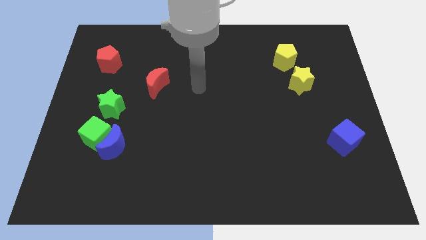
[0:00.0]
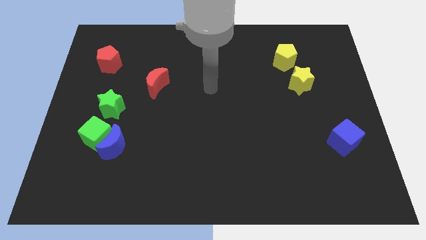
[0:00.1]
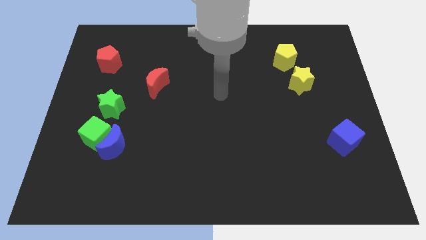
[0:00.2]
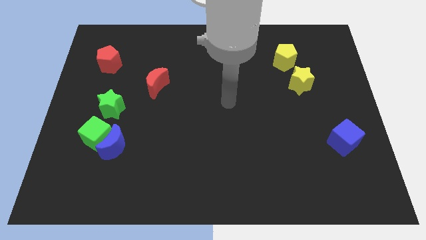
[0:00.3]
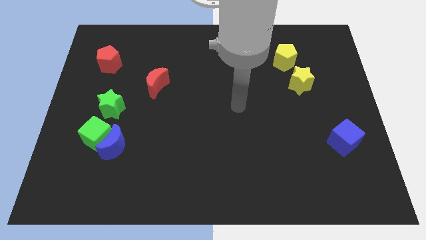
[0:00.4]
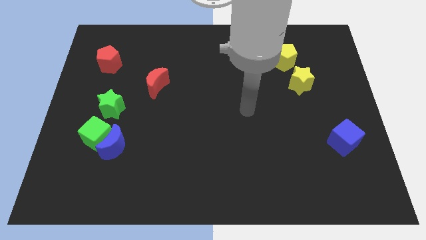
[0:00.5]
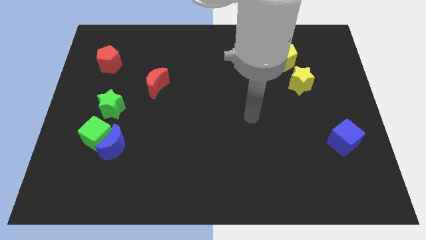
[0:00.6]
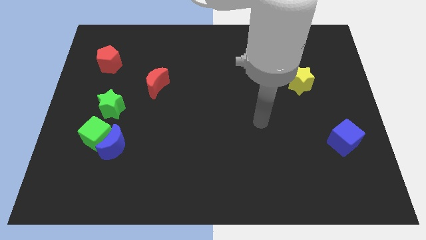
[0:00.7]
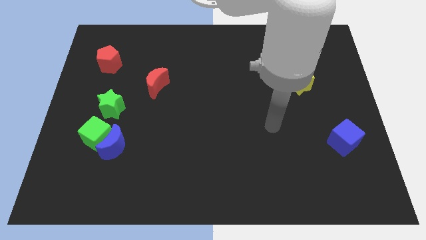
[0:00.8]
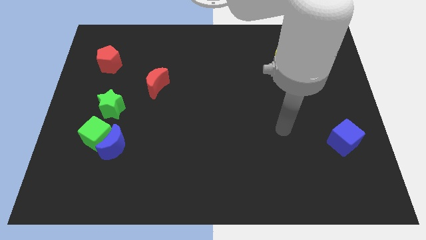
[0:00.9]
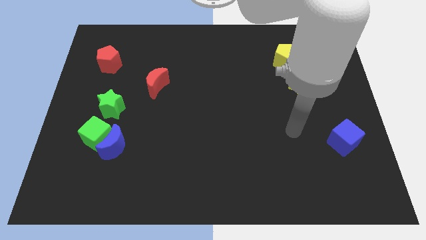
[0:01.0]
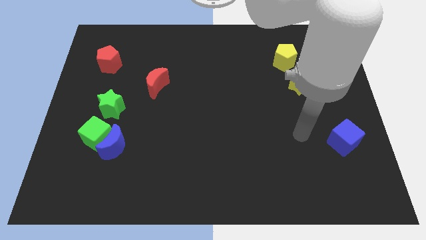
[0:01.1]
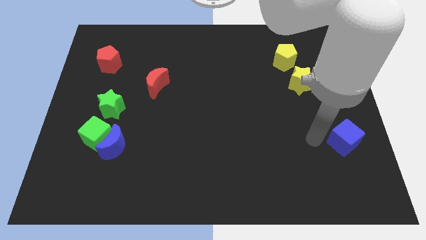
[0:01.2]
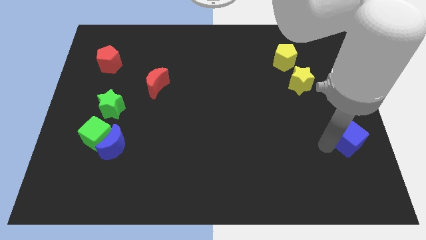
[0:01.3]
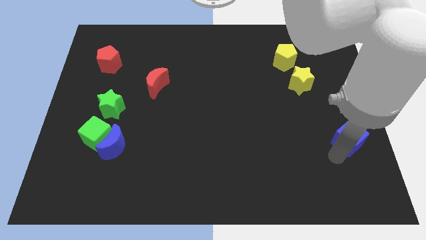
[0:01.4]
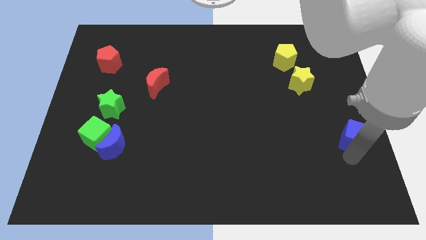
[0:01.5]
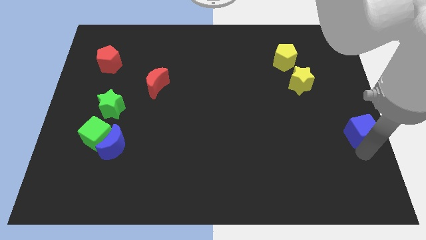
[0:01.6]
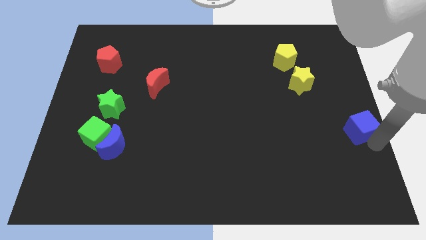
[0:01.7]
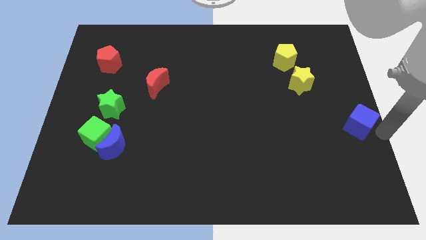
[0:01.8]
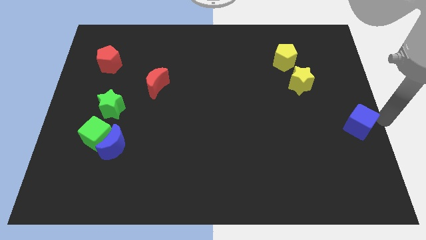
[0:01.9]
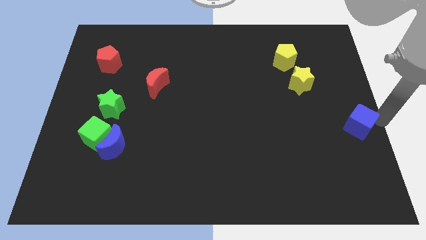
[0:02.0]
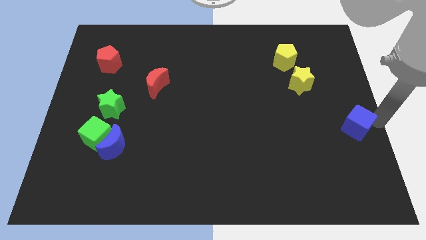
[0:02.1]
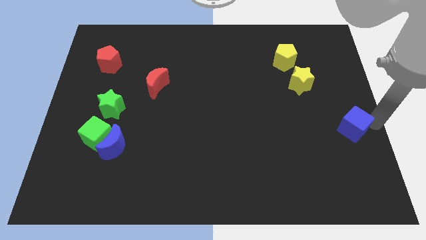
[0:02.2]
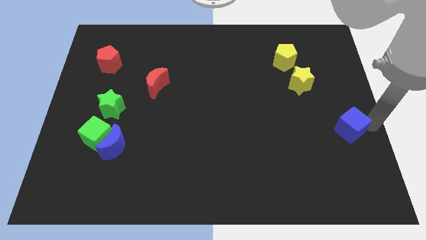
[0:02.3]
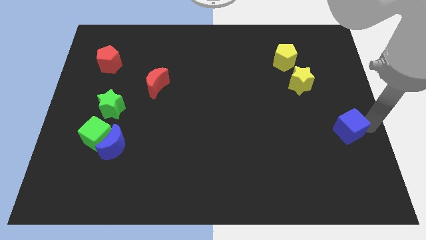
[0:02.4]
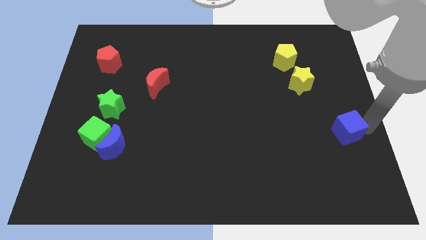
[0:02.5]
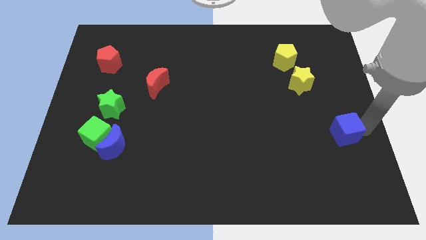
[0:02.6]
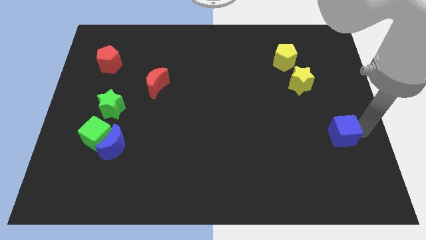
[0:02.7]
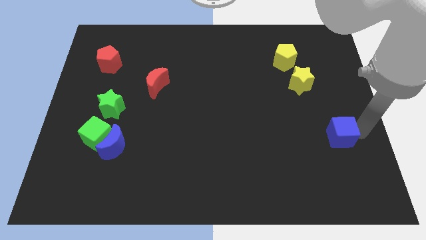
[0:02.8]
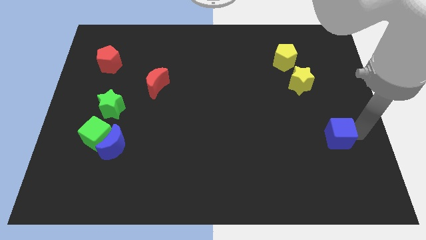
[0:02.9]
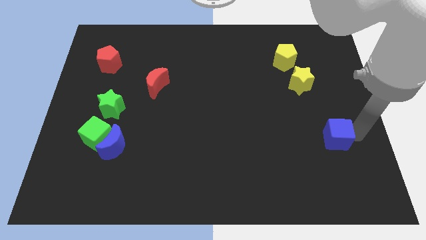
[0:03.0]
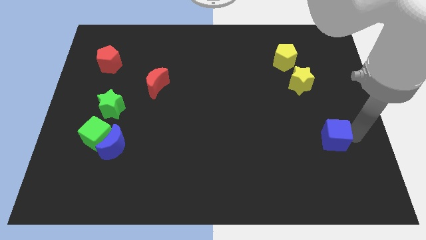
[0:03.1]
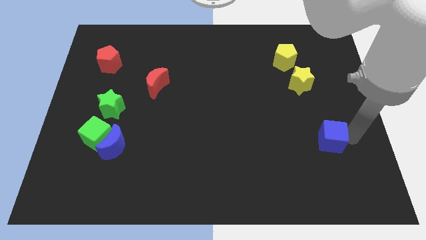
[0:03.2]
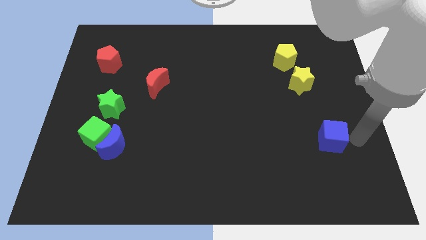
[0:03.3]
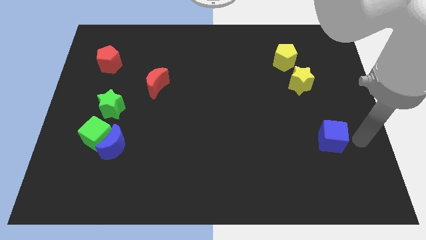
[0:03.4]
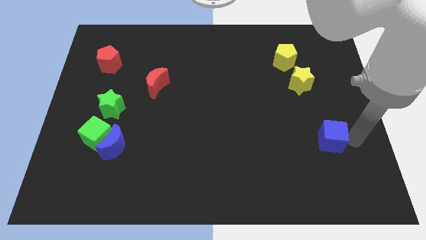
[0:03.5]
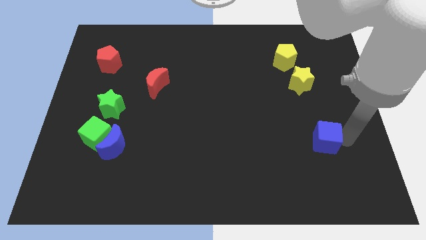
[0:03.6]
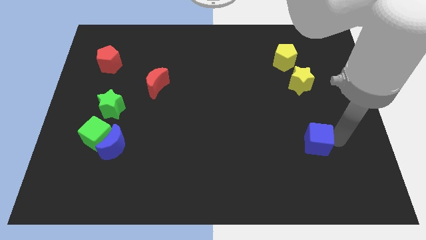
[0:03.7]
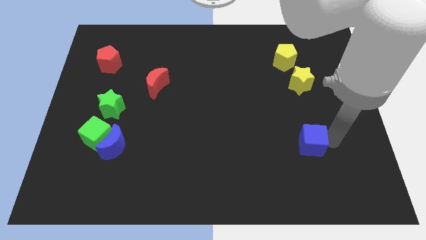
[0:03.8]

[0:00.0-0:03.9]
push the blue cube left a little

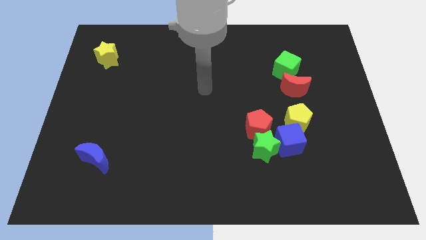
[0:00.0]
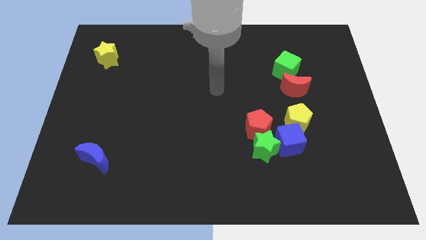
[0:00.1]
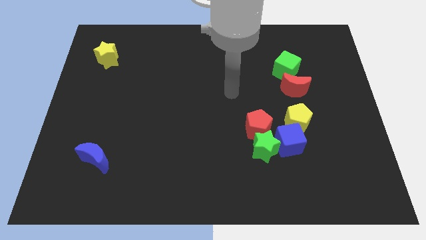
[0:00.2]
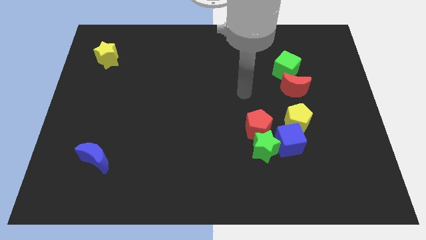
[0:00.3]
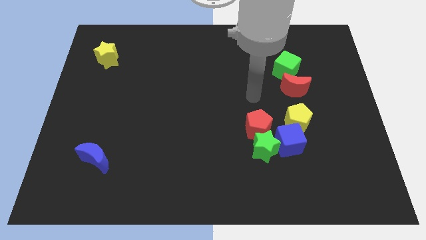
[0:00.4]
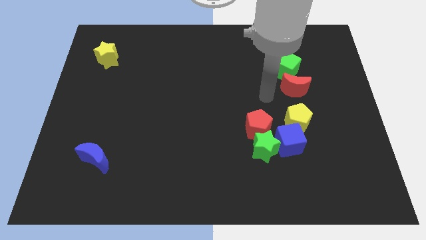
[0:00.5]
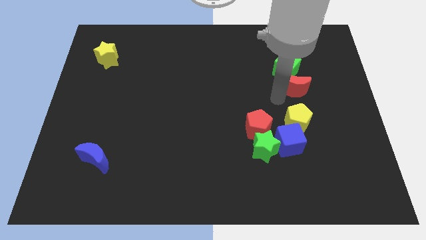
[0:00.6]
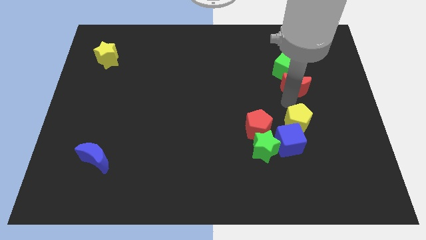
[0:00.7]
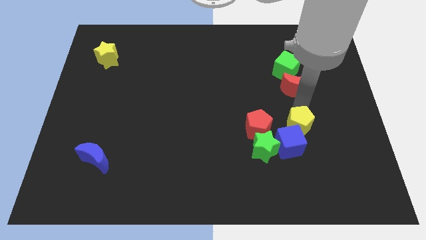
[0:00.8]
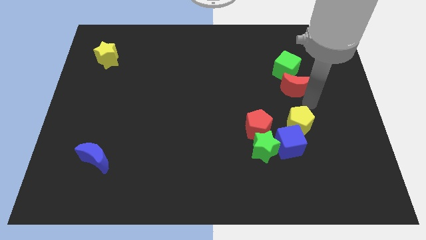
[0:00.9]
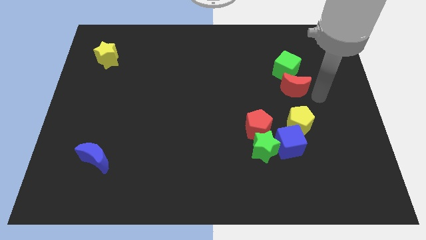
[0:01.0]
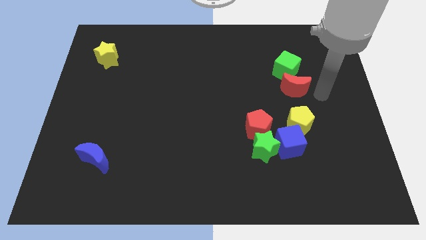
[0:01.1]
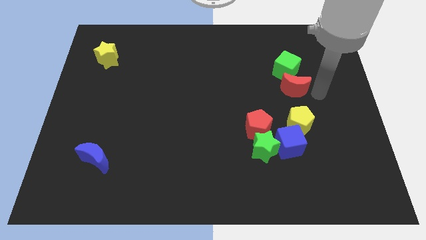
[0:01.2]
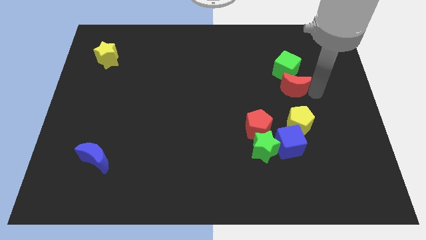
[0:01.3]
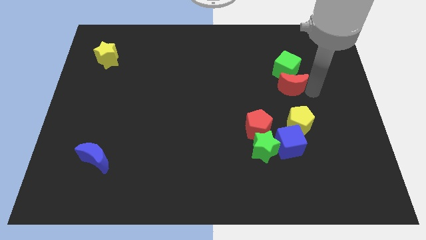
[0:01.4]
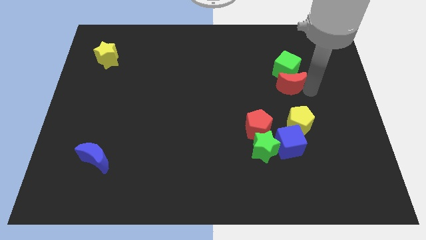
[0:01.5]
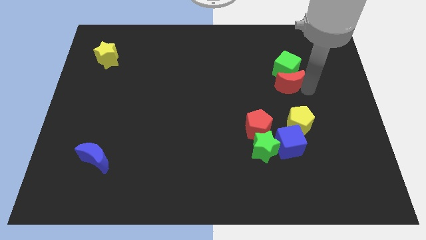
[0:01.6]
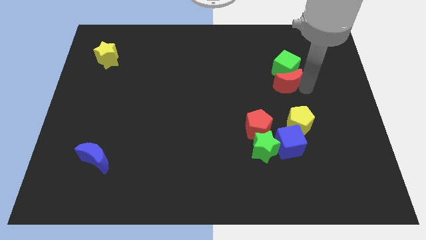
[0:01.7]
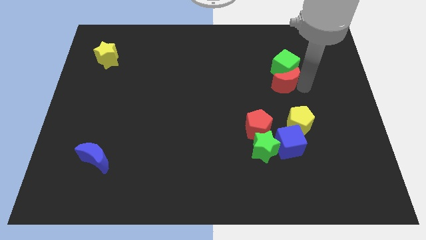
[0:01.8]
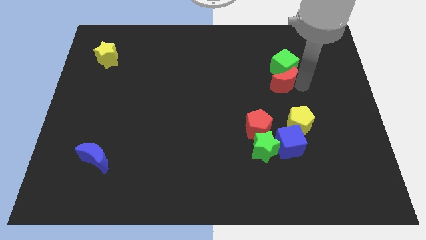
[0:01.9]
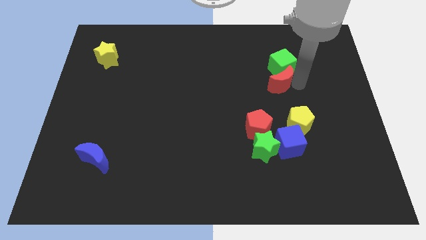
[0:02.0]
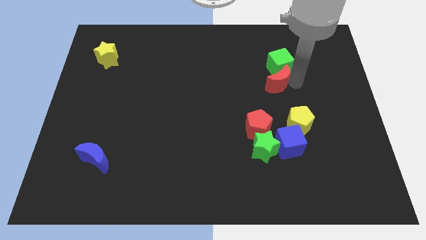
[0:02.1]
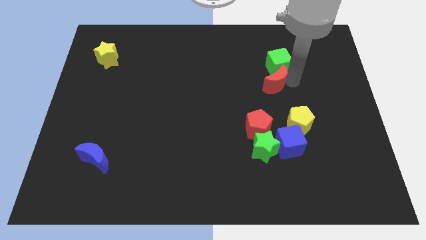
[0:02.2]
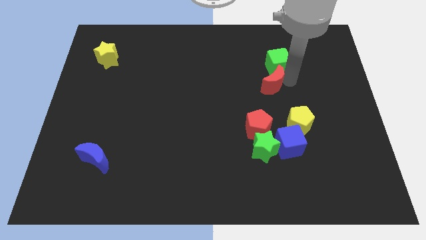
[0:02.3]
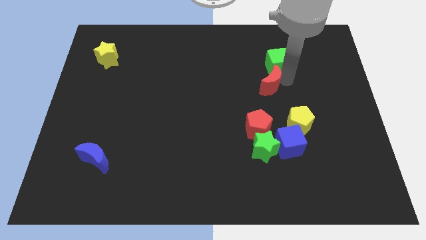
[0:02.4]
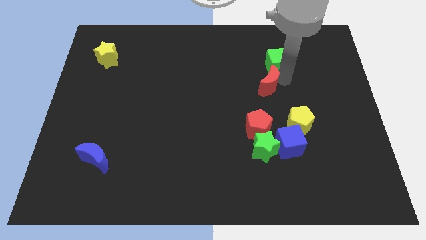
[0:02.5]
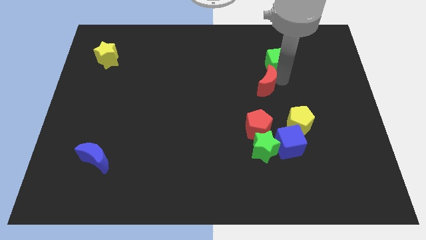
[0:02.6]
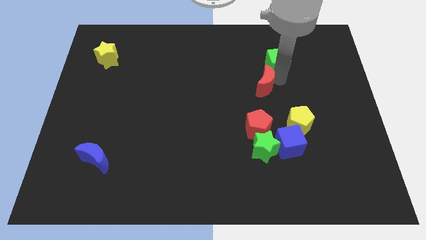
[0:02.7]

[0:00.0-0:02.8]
push the red moon left slightly

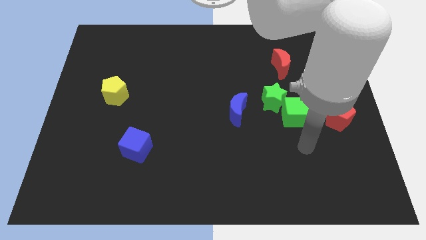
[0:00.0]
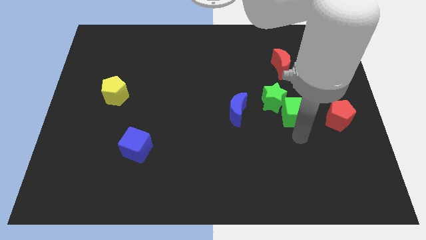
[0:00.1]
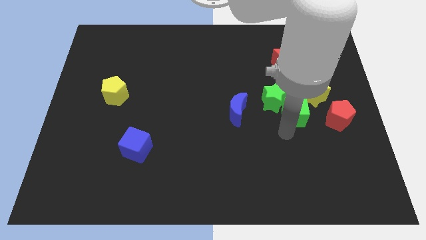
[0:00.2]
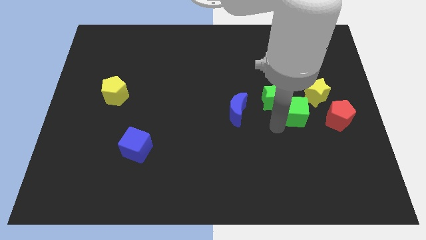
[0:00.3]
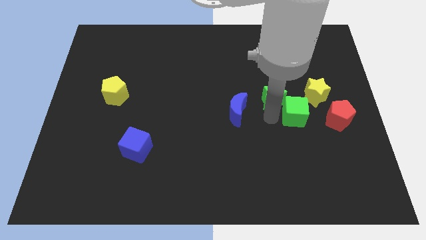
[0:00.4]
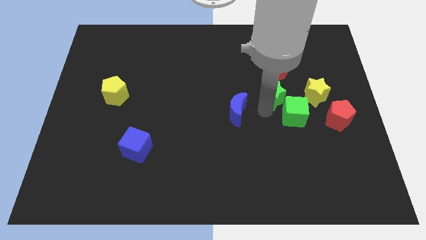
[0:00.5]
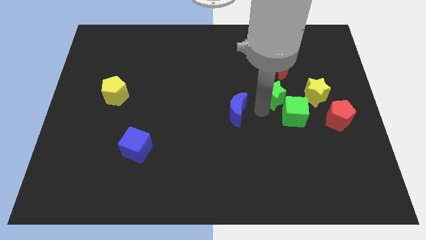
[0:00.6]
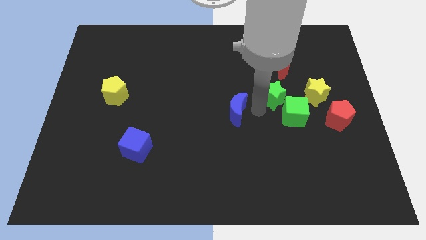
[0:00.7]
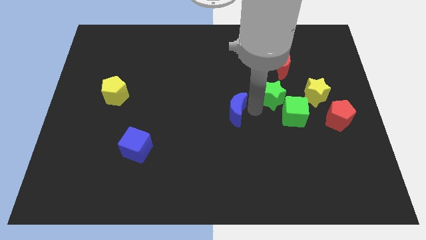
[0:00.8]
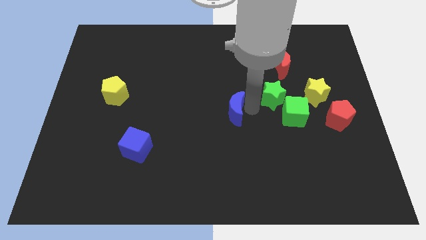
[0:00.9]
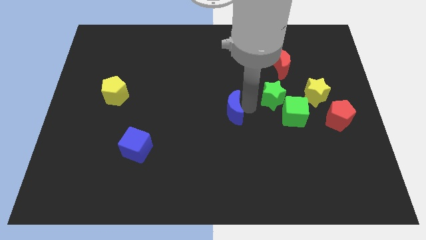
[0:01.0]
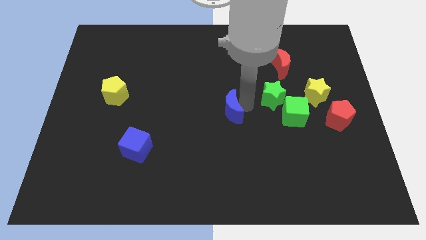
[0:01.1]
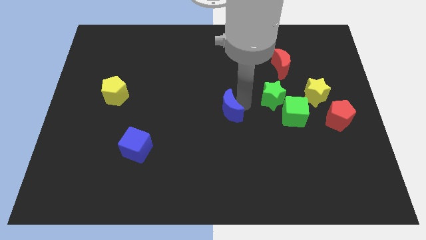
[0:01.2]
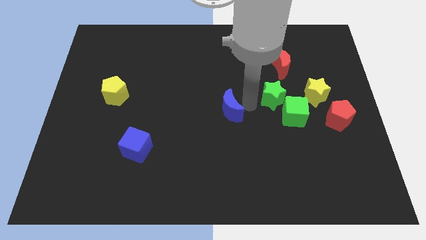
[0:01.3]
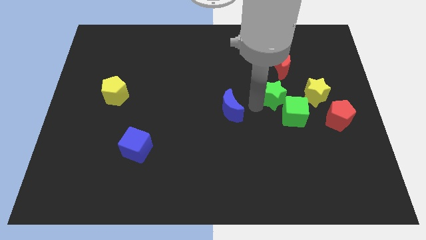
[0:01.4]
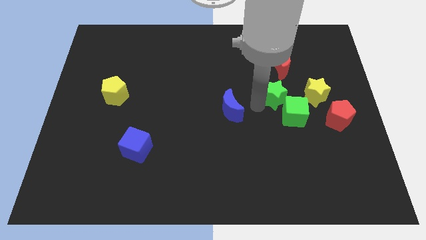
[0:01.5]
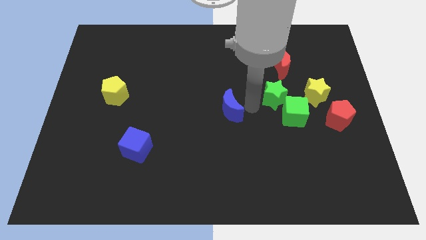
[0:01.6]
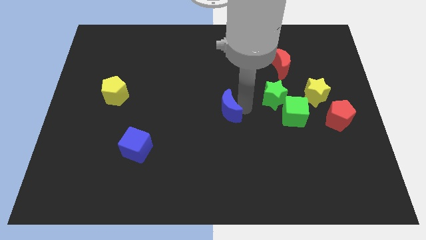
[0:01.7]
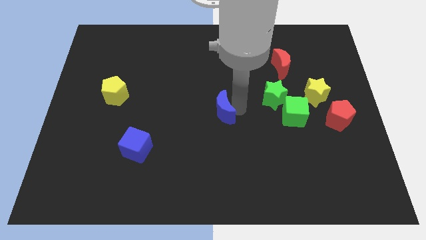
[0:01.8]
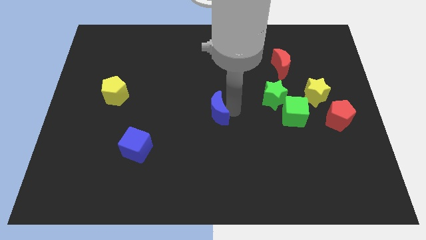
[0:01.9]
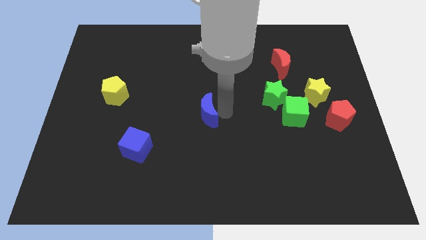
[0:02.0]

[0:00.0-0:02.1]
slide the blue moon slightly to the left
